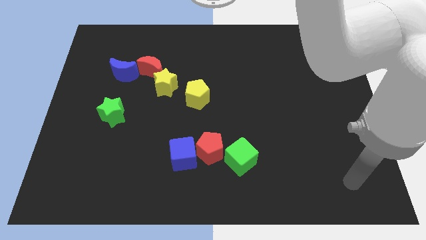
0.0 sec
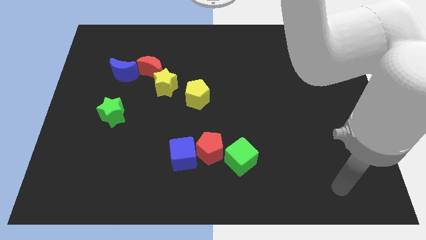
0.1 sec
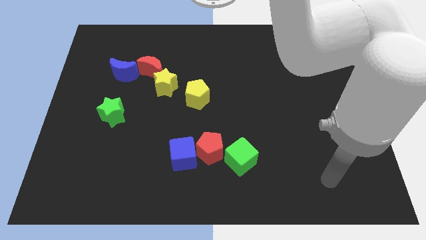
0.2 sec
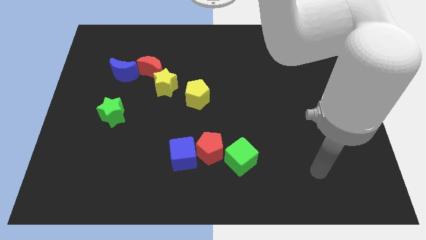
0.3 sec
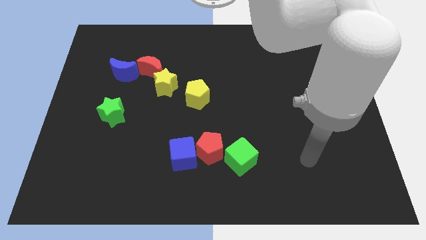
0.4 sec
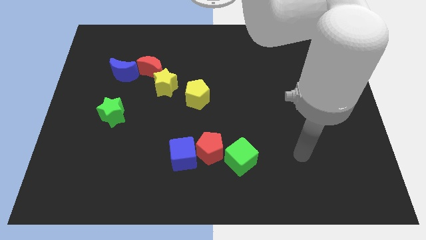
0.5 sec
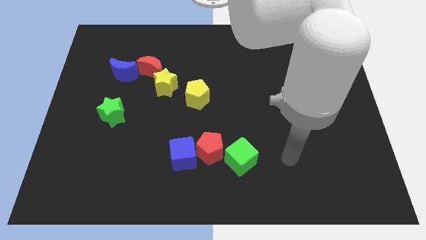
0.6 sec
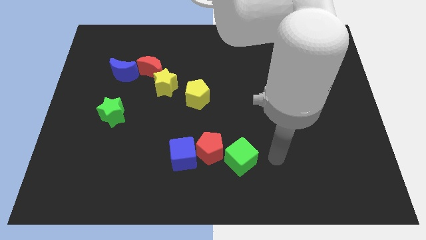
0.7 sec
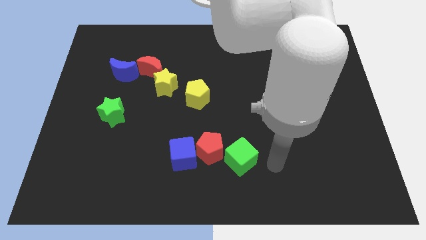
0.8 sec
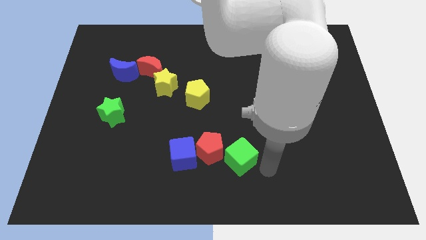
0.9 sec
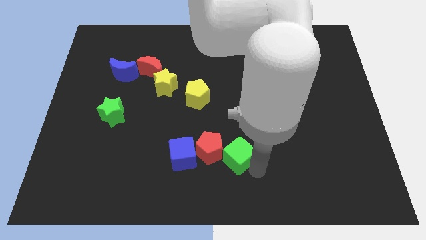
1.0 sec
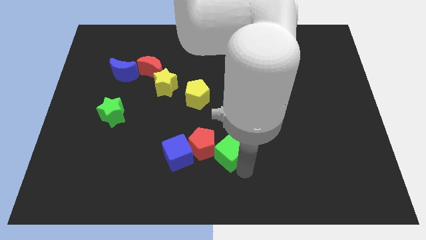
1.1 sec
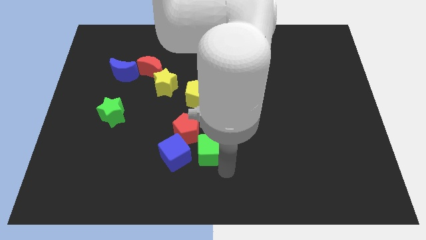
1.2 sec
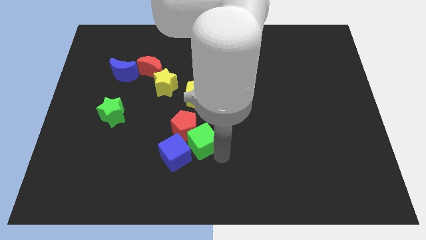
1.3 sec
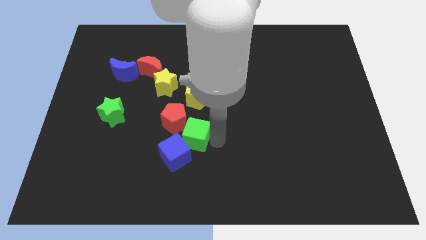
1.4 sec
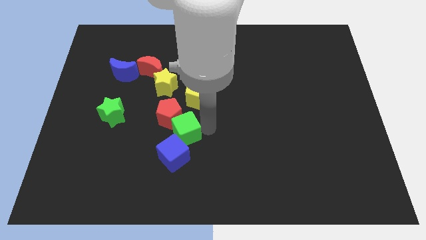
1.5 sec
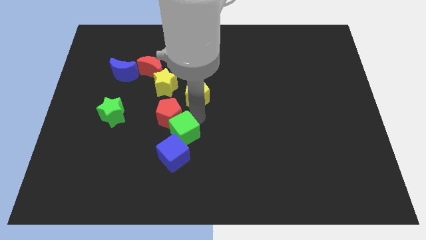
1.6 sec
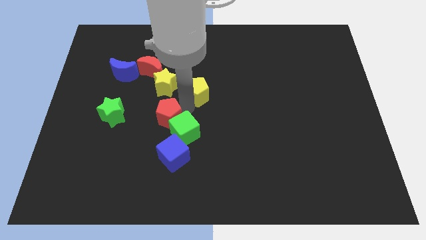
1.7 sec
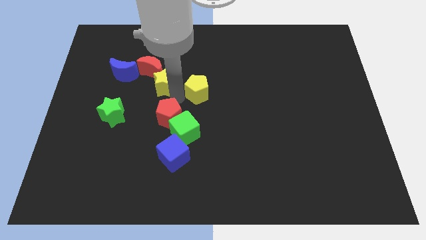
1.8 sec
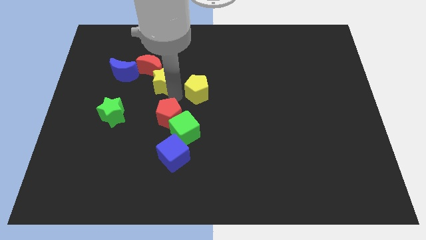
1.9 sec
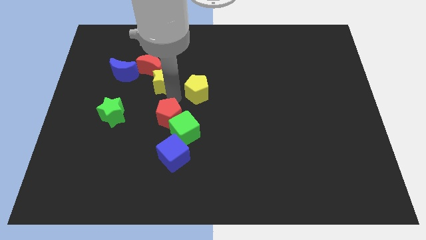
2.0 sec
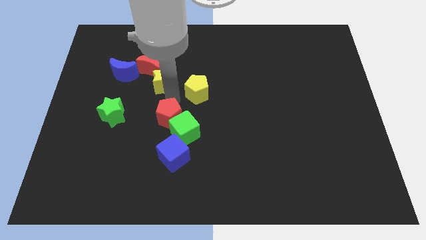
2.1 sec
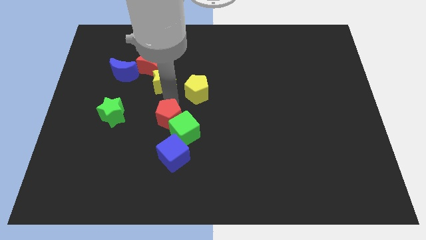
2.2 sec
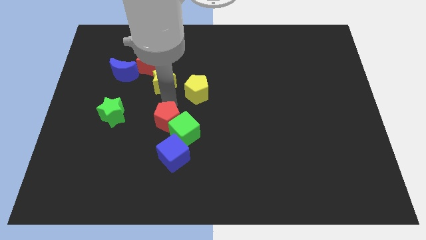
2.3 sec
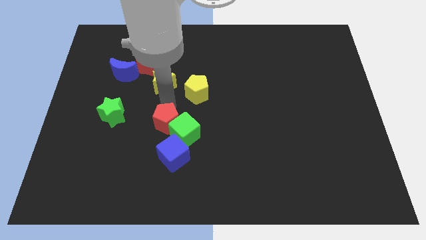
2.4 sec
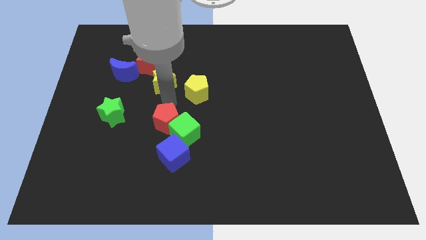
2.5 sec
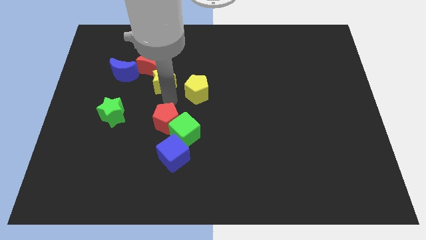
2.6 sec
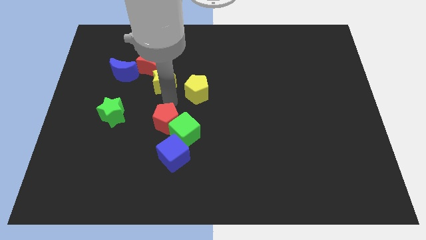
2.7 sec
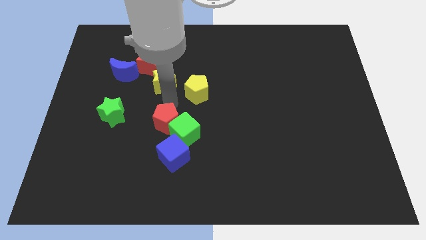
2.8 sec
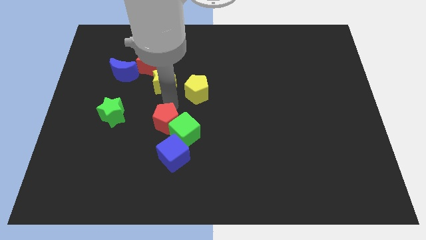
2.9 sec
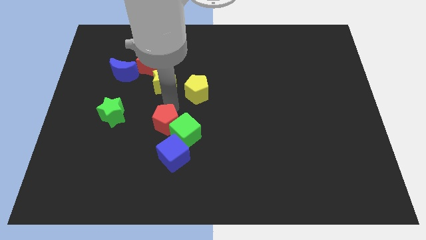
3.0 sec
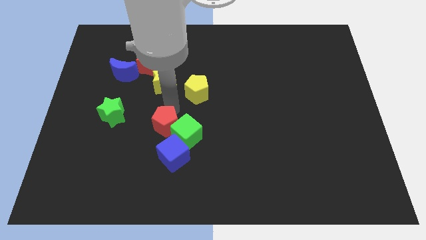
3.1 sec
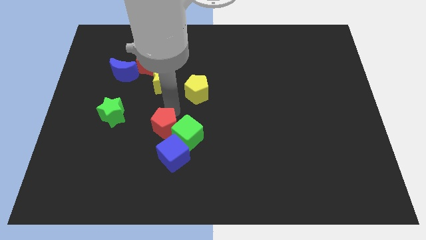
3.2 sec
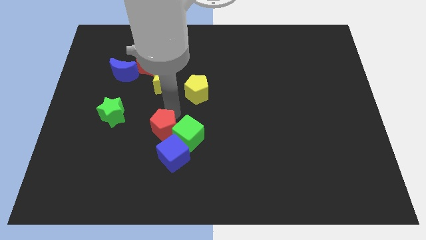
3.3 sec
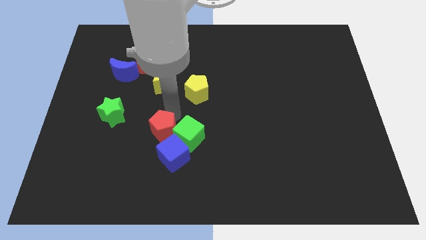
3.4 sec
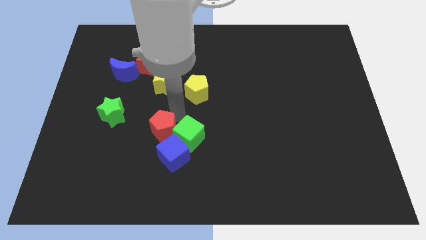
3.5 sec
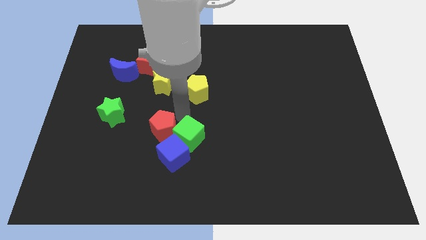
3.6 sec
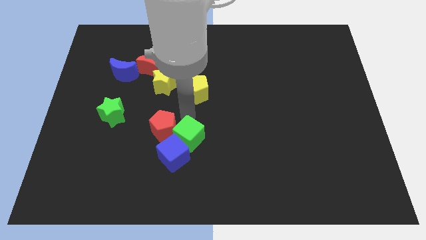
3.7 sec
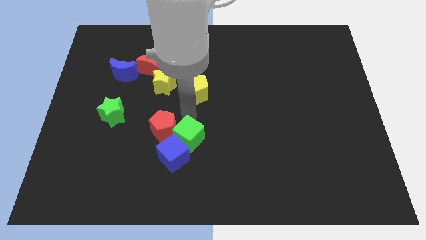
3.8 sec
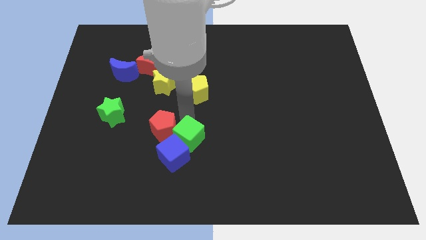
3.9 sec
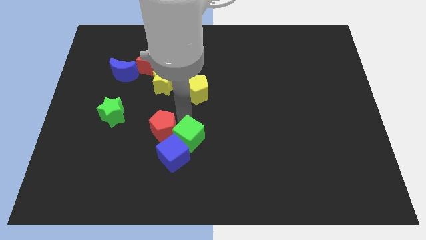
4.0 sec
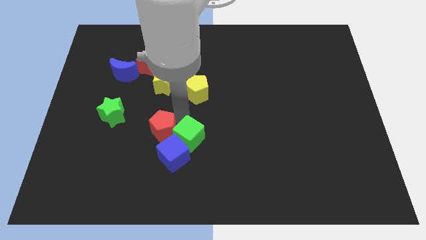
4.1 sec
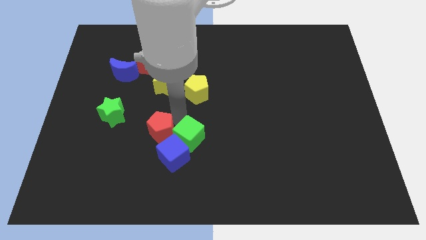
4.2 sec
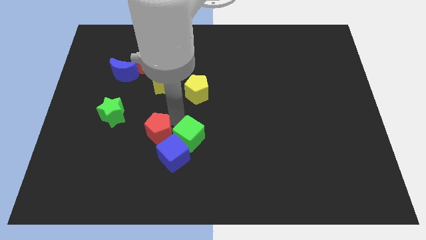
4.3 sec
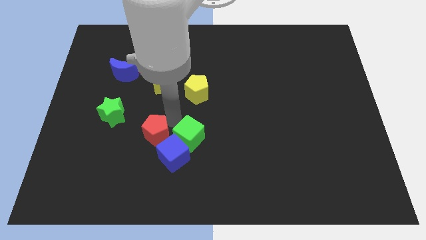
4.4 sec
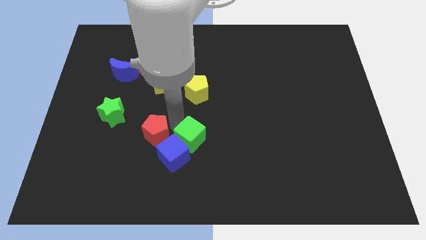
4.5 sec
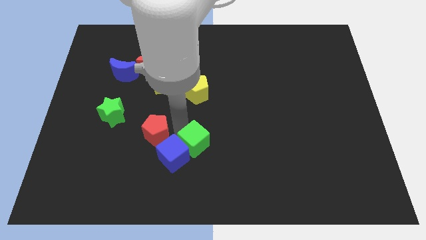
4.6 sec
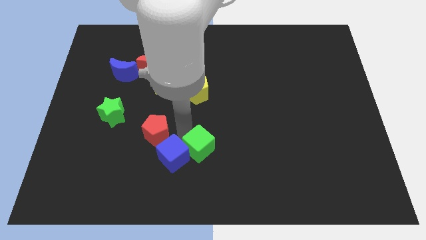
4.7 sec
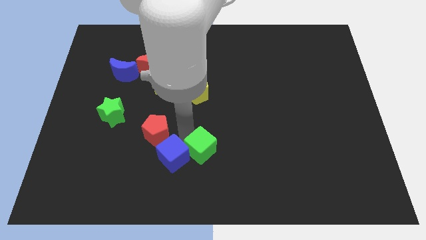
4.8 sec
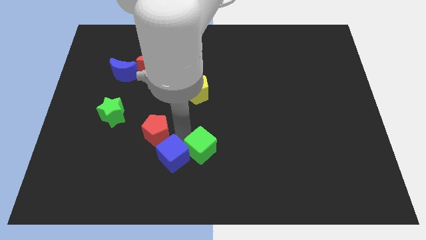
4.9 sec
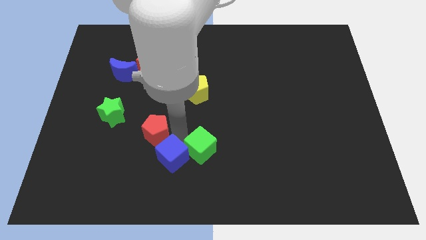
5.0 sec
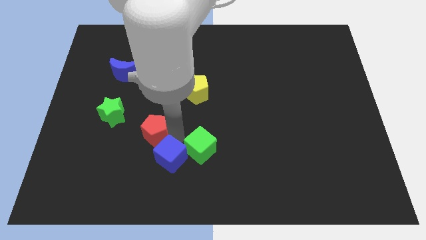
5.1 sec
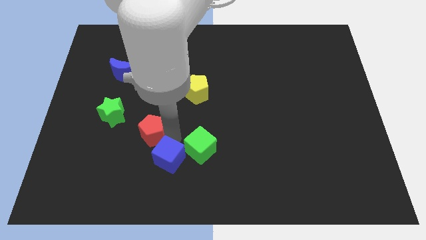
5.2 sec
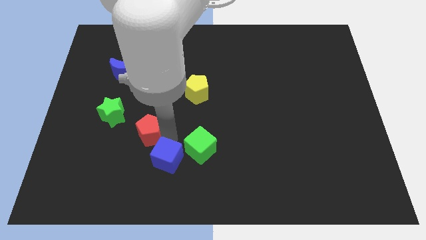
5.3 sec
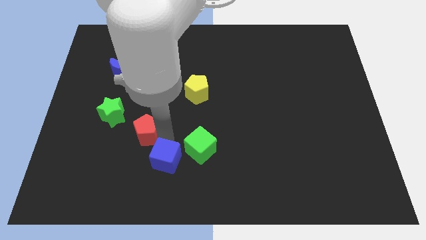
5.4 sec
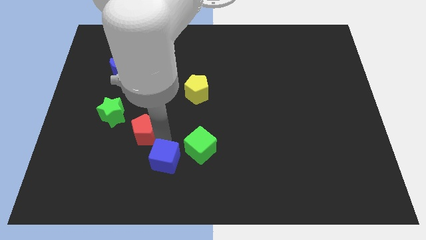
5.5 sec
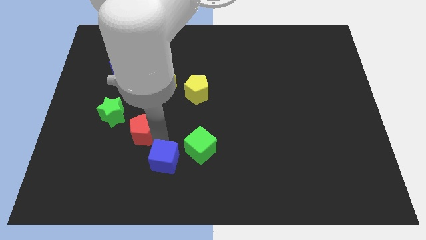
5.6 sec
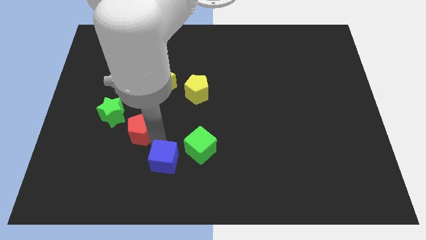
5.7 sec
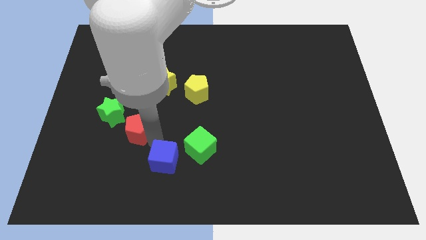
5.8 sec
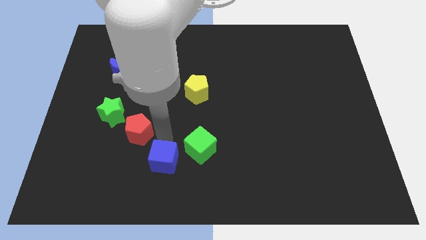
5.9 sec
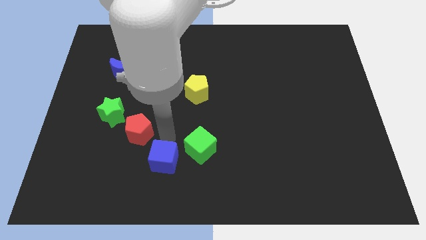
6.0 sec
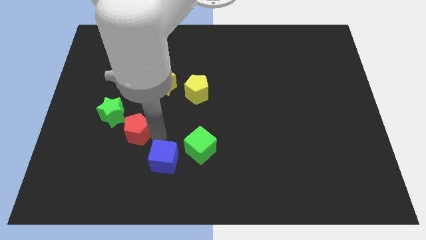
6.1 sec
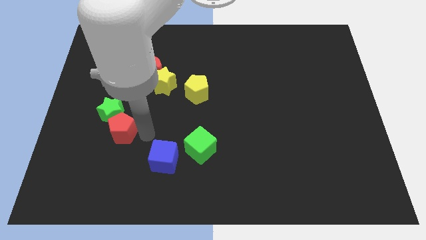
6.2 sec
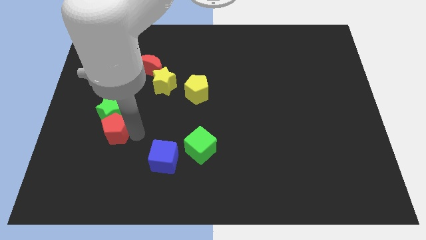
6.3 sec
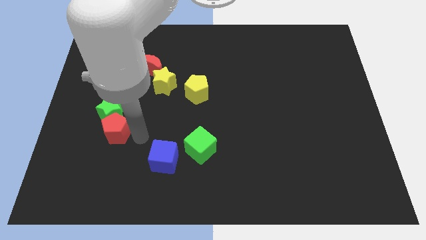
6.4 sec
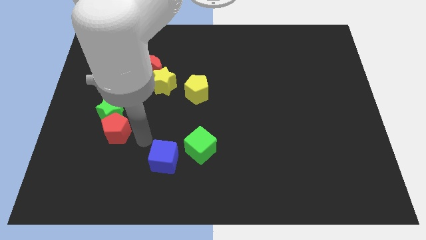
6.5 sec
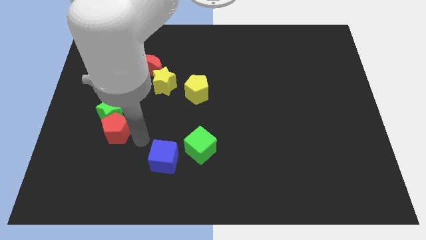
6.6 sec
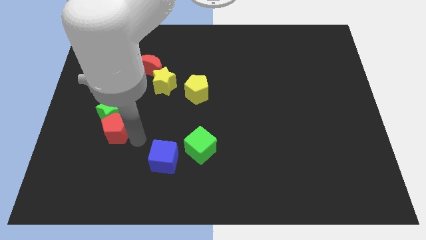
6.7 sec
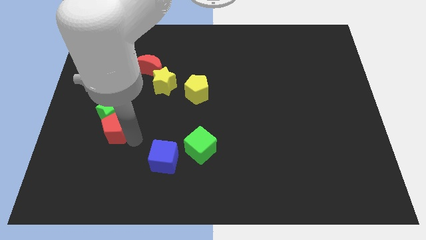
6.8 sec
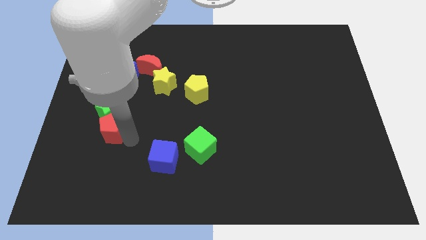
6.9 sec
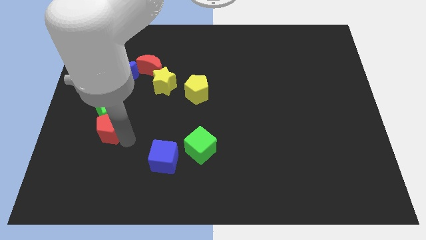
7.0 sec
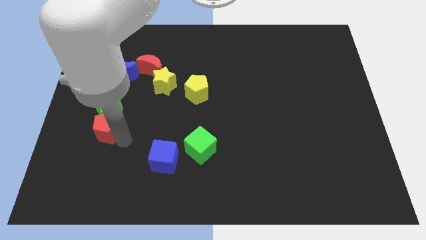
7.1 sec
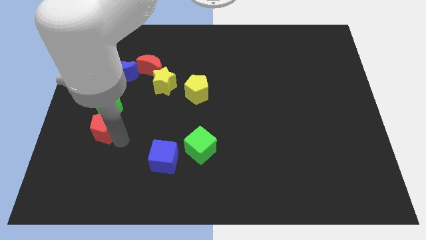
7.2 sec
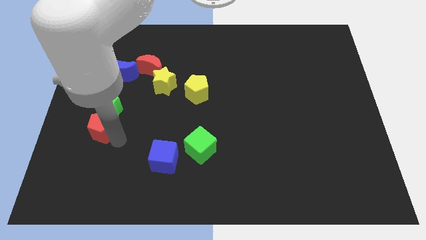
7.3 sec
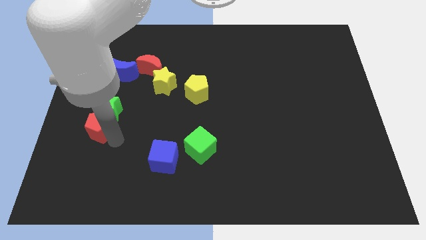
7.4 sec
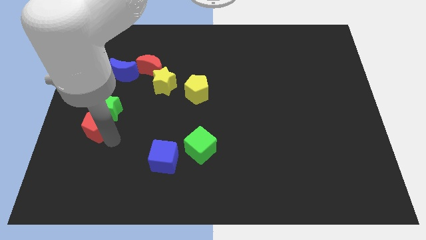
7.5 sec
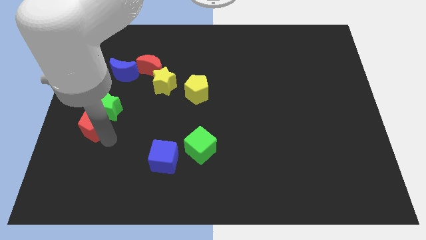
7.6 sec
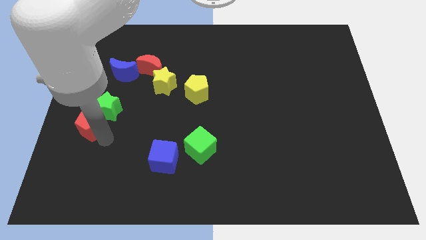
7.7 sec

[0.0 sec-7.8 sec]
put the red pentagon to the left side of the board
